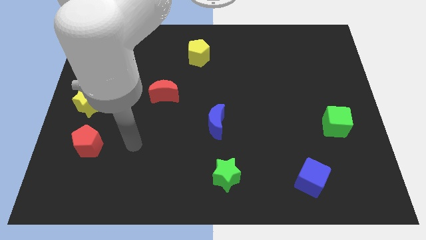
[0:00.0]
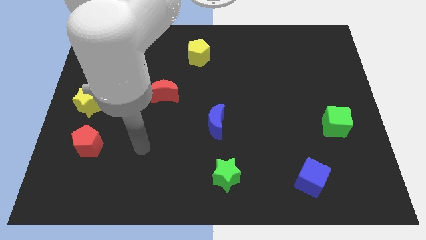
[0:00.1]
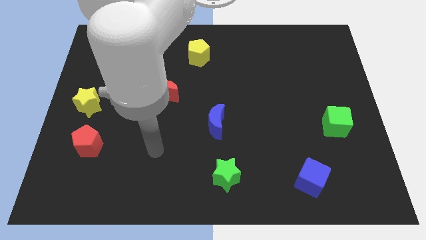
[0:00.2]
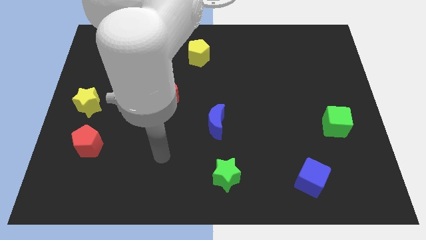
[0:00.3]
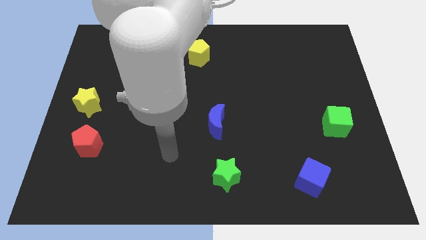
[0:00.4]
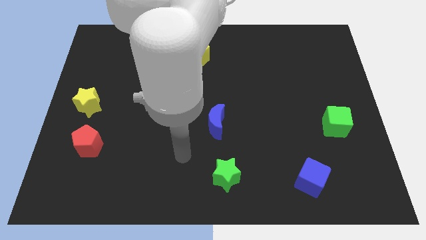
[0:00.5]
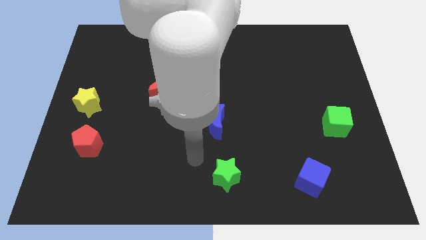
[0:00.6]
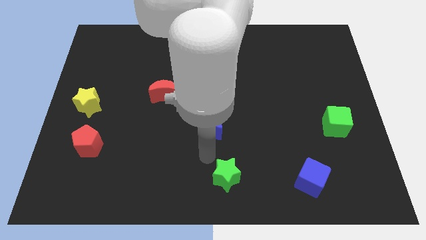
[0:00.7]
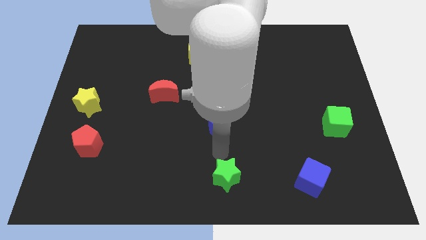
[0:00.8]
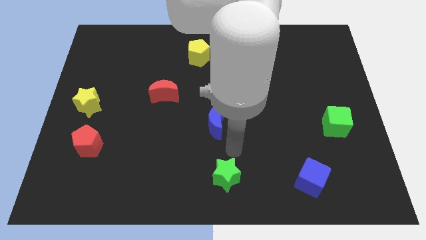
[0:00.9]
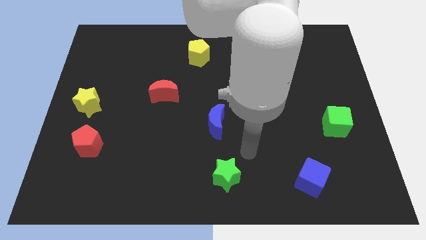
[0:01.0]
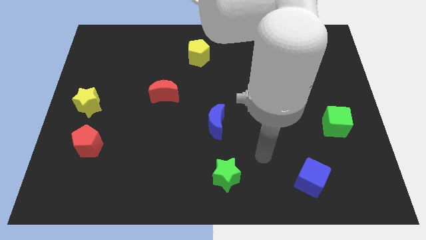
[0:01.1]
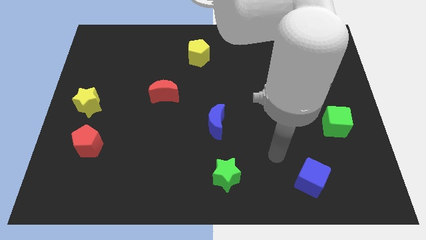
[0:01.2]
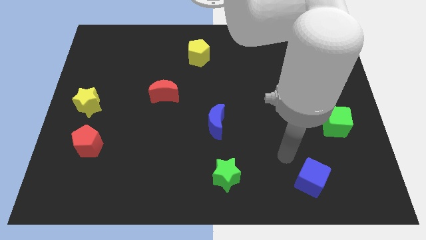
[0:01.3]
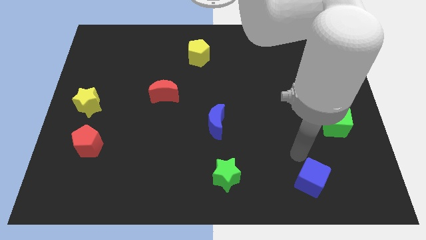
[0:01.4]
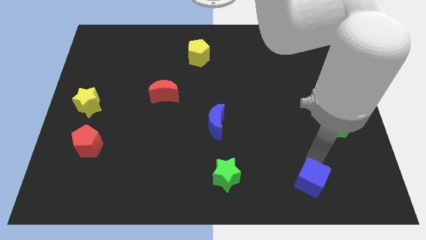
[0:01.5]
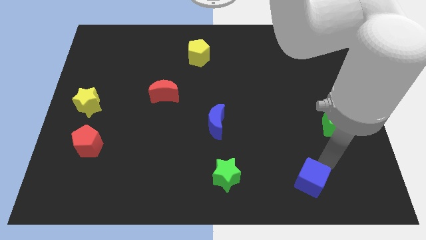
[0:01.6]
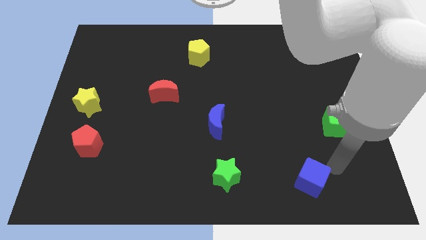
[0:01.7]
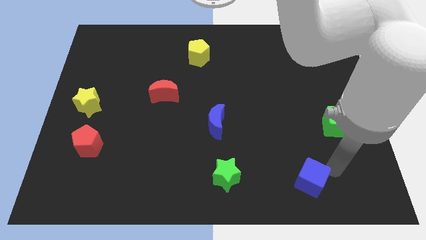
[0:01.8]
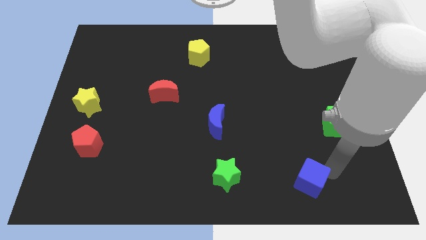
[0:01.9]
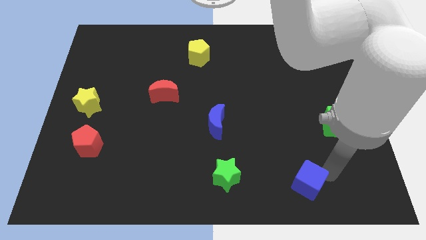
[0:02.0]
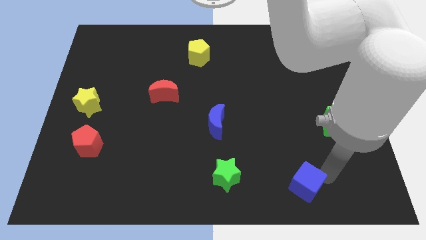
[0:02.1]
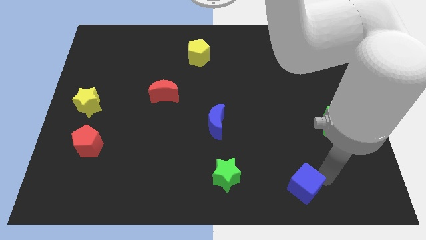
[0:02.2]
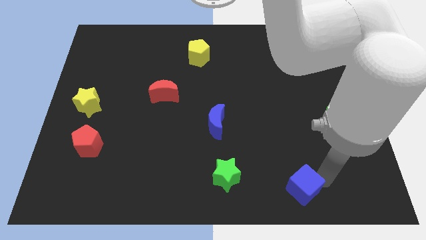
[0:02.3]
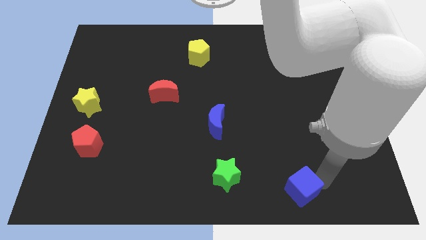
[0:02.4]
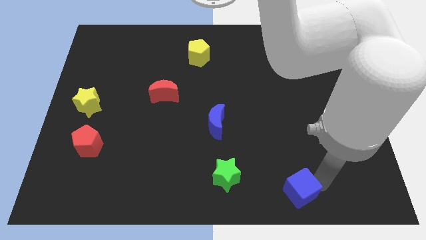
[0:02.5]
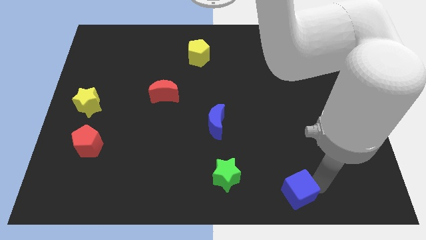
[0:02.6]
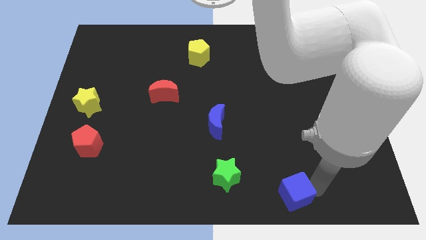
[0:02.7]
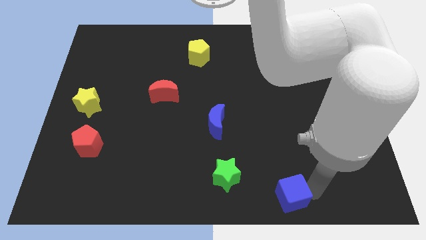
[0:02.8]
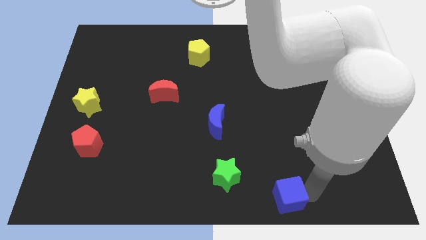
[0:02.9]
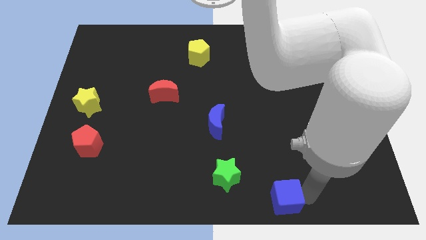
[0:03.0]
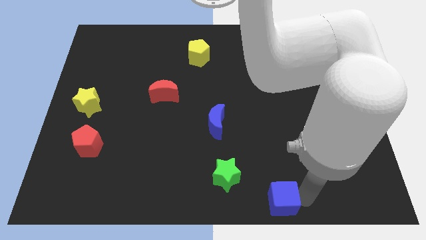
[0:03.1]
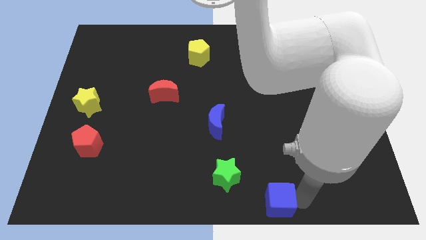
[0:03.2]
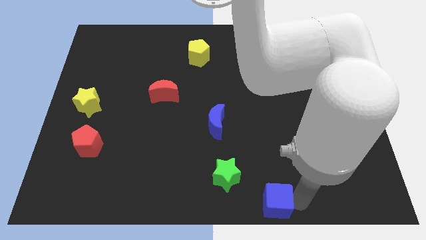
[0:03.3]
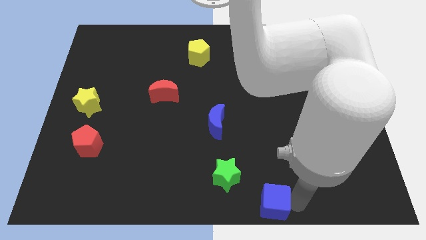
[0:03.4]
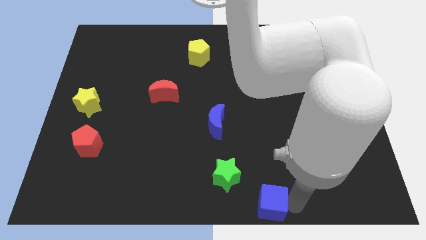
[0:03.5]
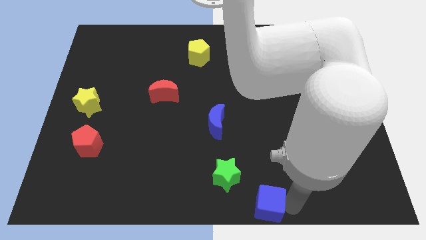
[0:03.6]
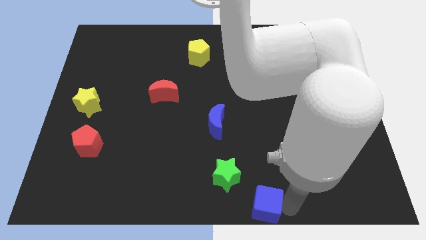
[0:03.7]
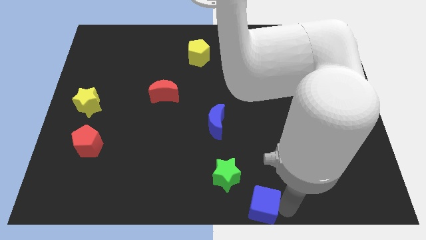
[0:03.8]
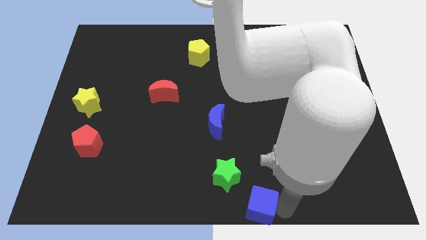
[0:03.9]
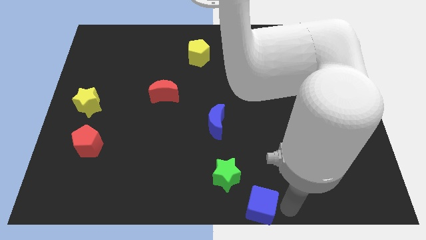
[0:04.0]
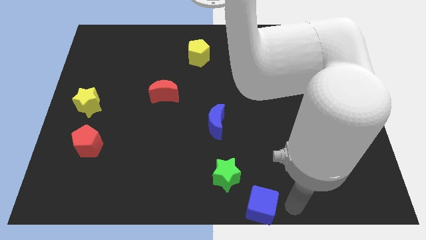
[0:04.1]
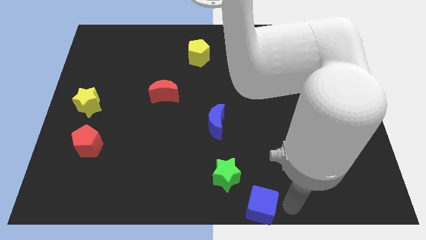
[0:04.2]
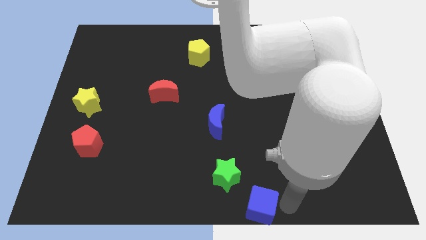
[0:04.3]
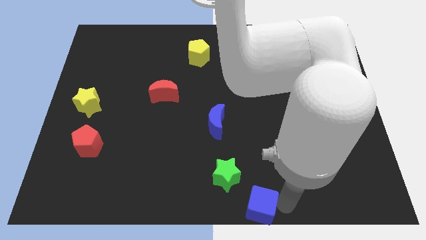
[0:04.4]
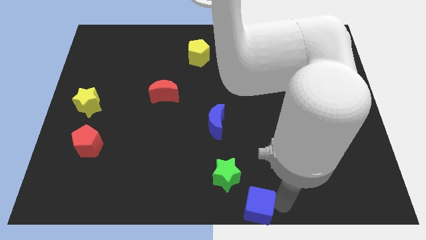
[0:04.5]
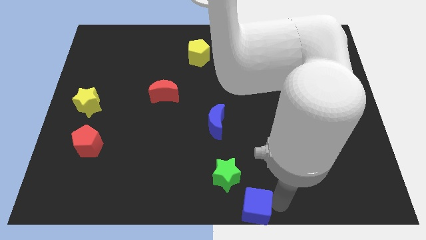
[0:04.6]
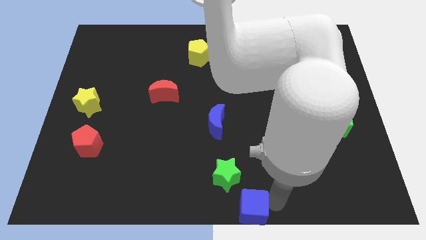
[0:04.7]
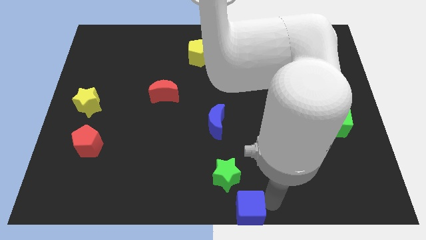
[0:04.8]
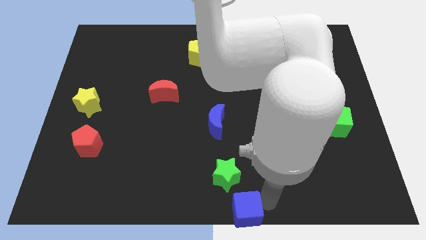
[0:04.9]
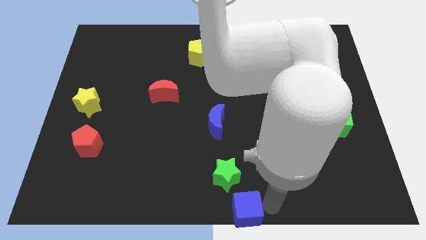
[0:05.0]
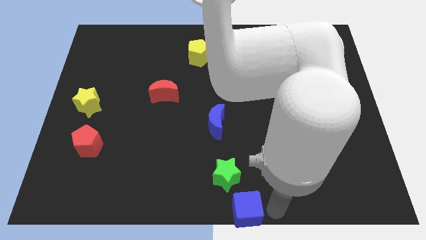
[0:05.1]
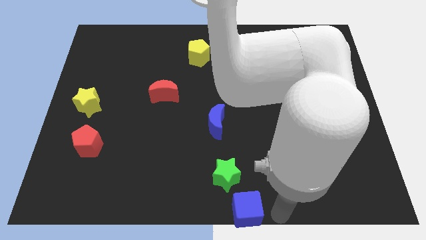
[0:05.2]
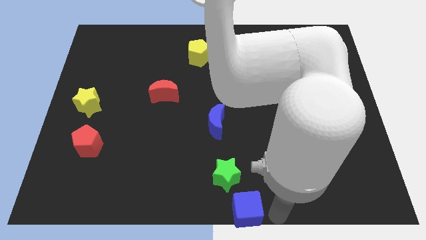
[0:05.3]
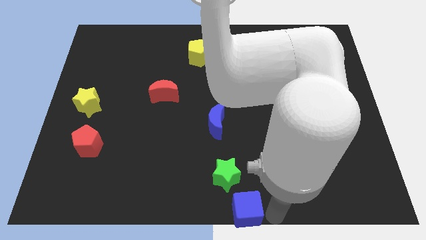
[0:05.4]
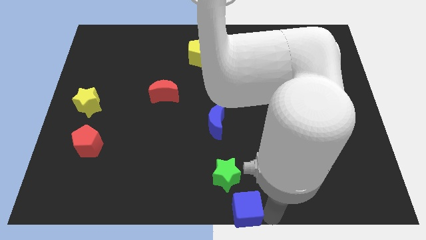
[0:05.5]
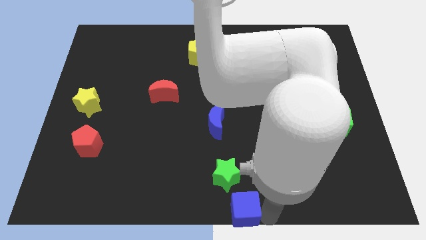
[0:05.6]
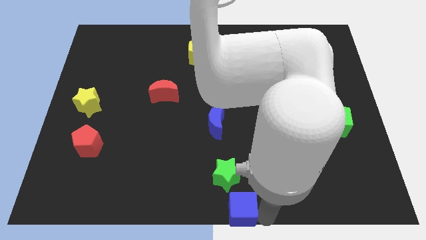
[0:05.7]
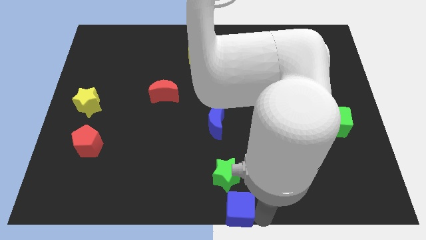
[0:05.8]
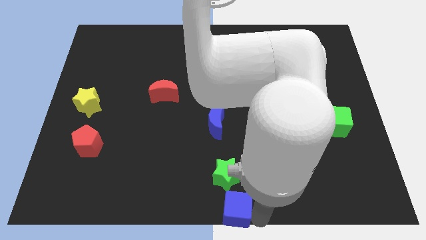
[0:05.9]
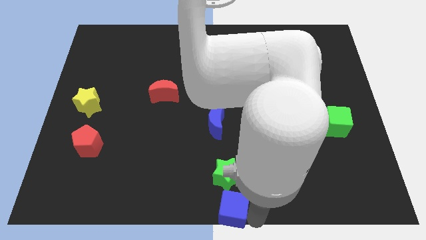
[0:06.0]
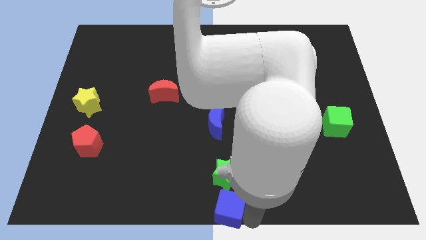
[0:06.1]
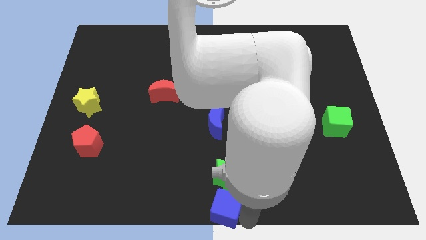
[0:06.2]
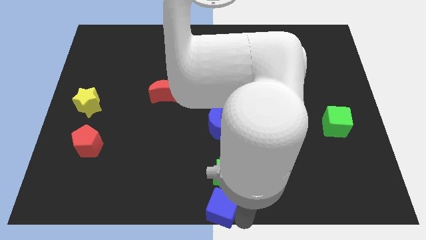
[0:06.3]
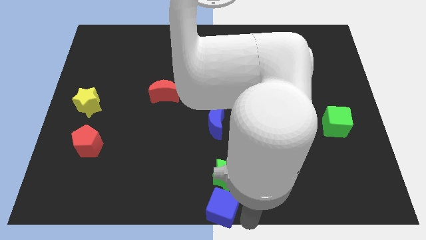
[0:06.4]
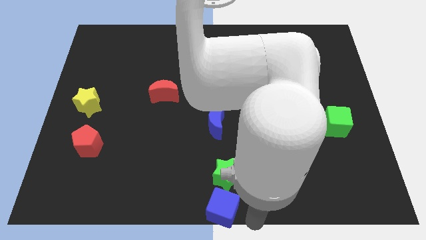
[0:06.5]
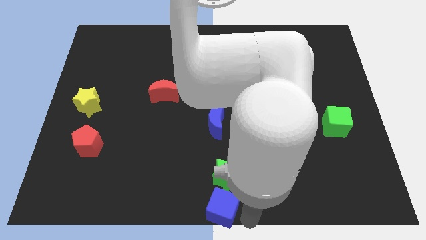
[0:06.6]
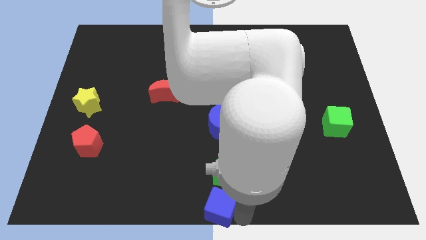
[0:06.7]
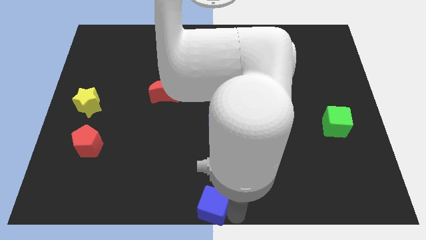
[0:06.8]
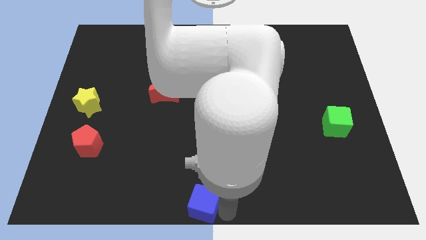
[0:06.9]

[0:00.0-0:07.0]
push the blue cube left

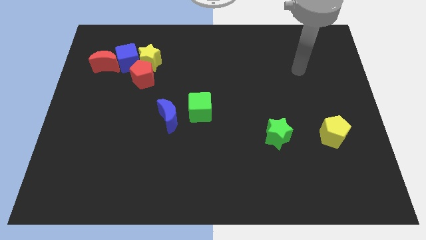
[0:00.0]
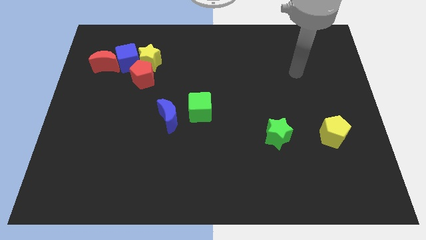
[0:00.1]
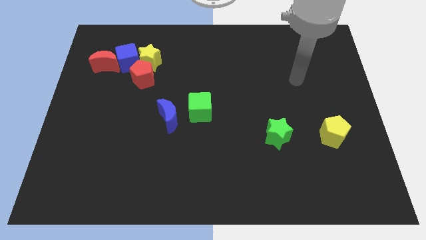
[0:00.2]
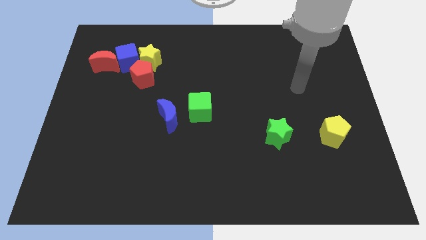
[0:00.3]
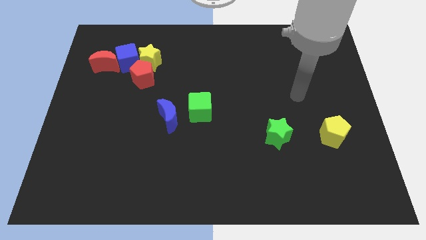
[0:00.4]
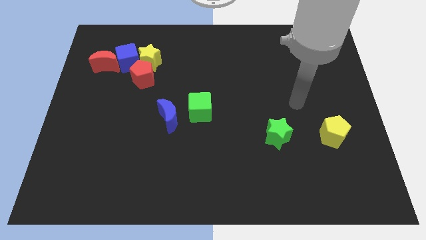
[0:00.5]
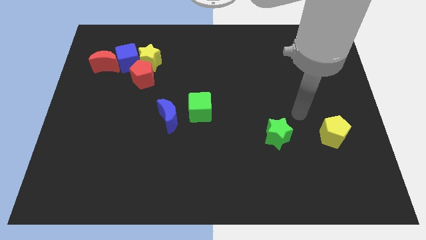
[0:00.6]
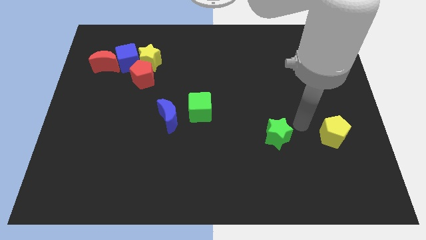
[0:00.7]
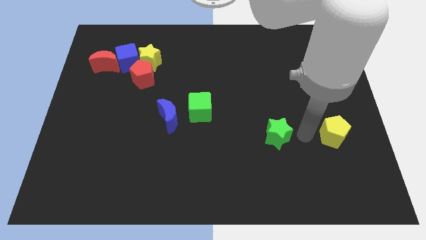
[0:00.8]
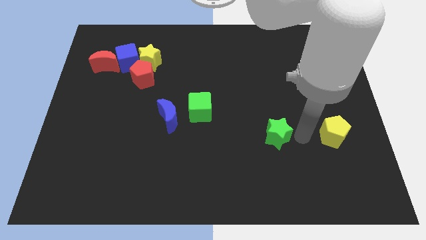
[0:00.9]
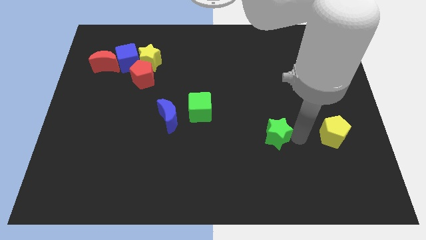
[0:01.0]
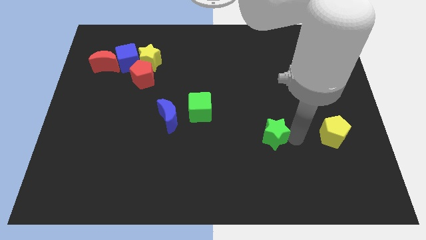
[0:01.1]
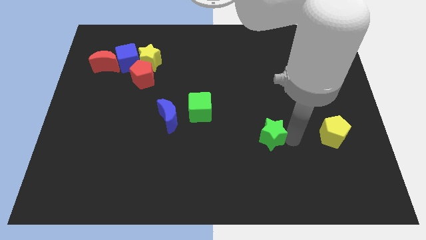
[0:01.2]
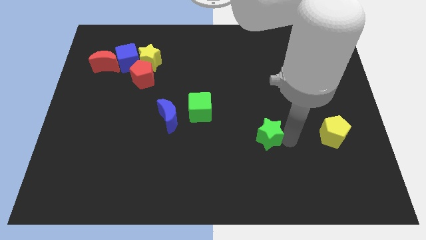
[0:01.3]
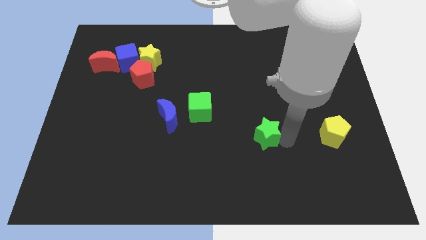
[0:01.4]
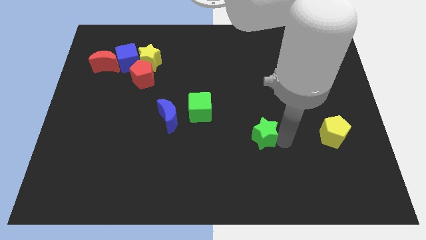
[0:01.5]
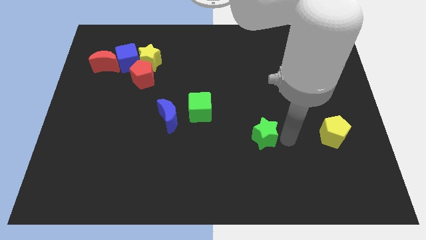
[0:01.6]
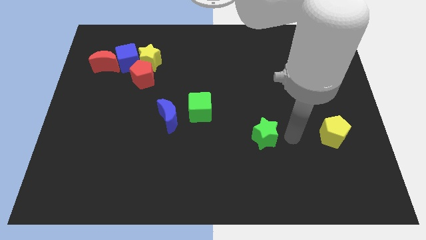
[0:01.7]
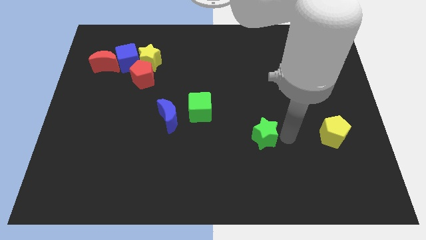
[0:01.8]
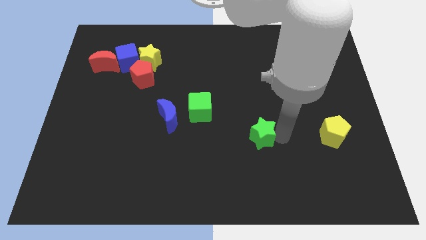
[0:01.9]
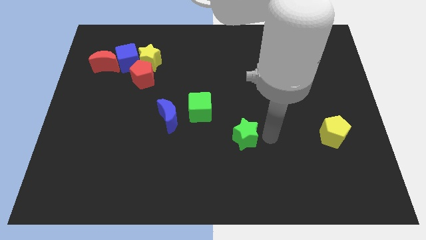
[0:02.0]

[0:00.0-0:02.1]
push the green star to the left somewhat
